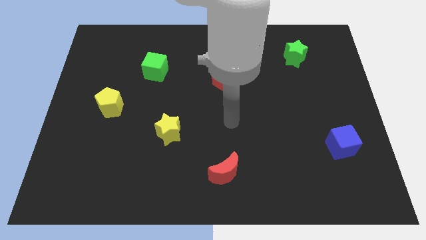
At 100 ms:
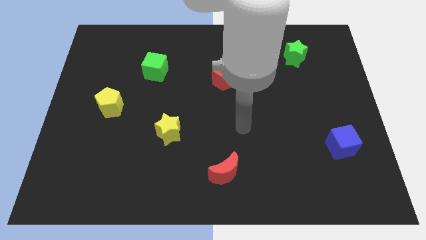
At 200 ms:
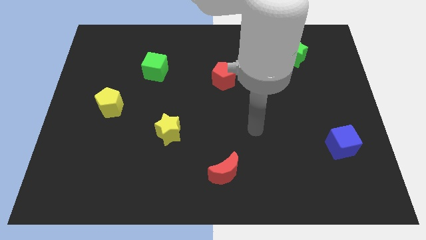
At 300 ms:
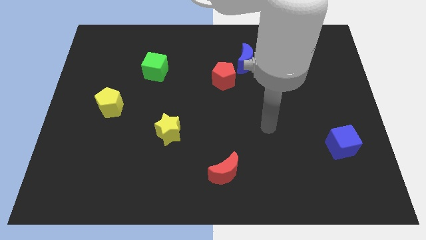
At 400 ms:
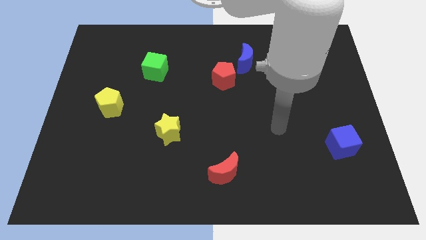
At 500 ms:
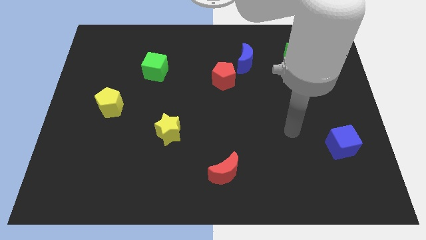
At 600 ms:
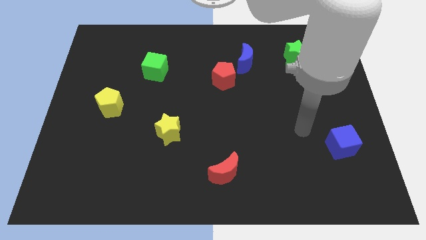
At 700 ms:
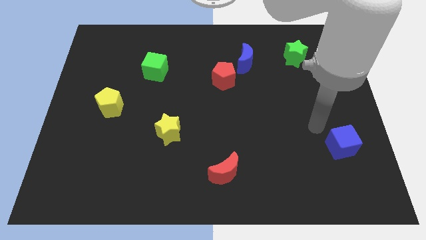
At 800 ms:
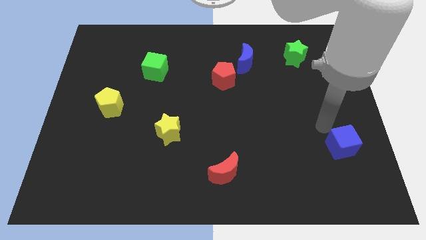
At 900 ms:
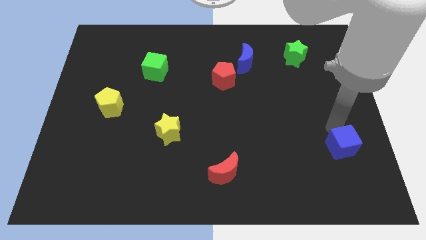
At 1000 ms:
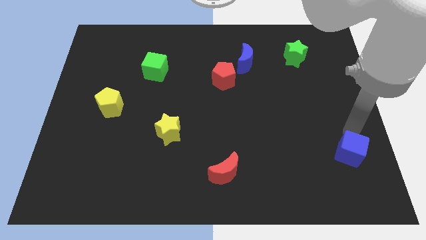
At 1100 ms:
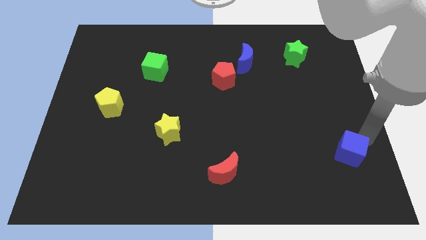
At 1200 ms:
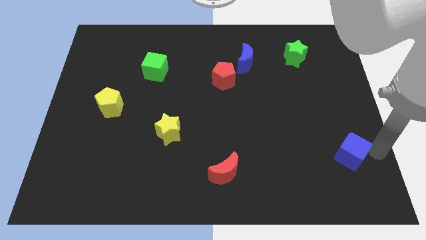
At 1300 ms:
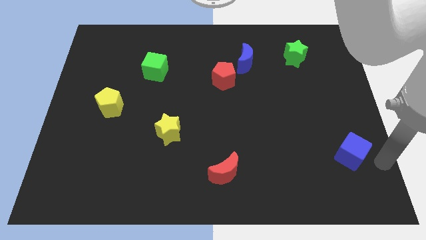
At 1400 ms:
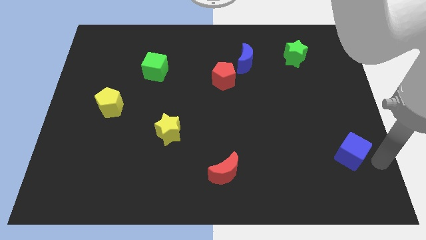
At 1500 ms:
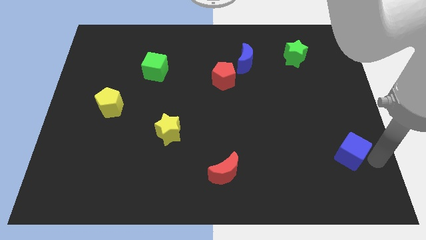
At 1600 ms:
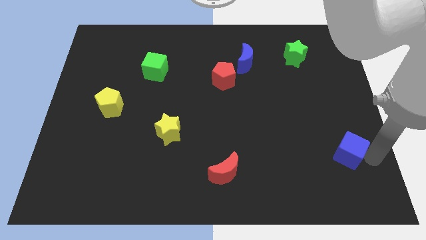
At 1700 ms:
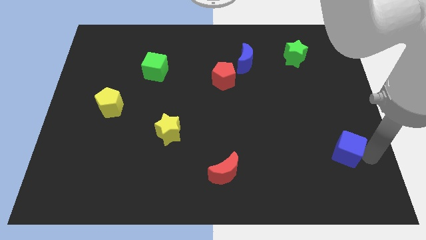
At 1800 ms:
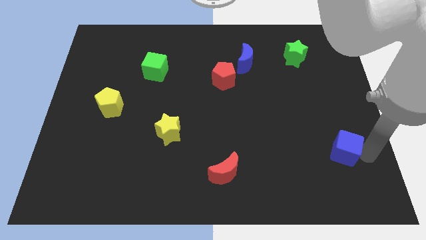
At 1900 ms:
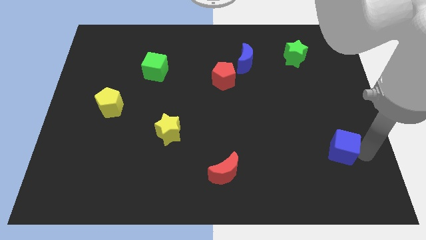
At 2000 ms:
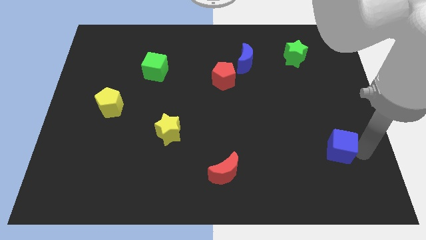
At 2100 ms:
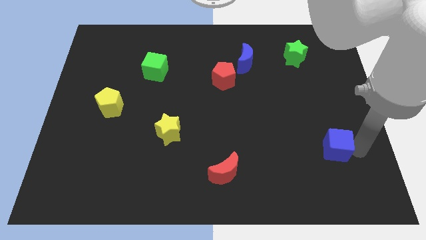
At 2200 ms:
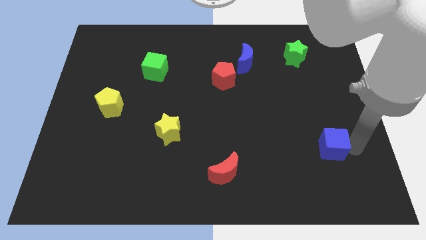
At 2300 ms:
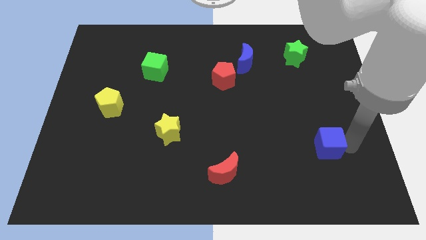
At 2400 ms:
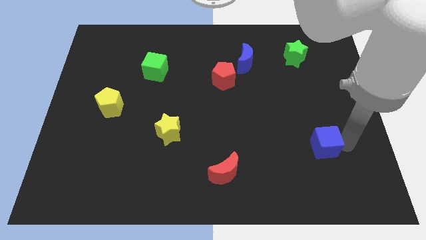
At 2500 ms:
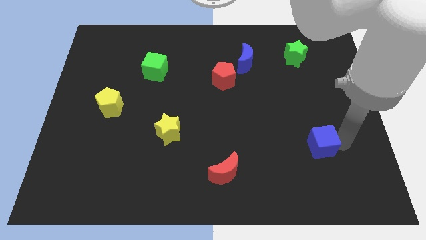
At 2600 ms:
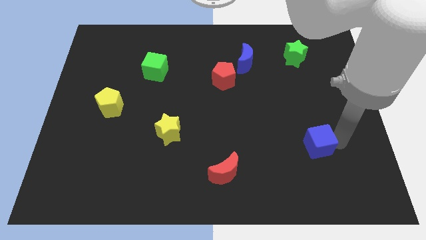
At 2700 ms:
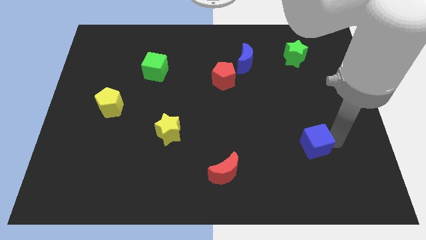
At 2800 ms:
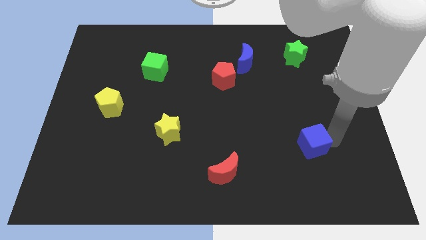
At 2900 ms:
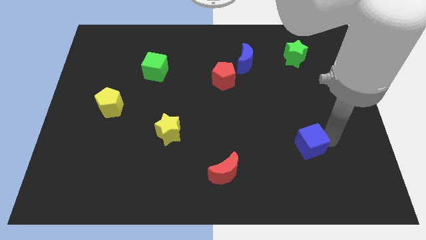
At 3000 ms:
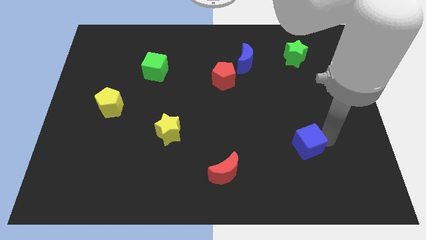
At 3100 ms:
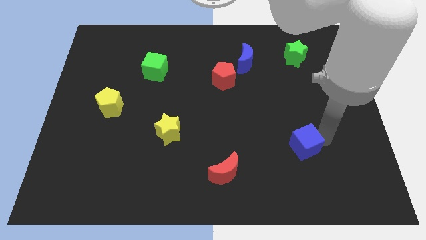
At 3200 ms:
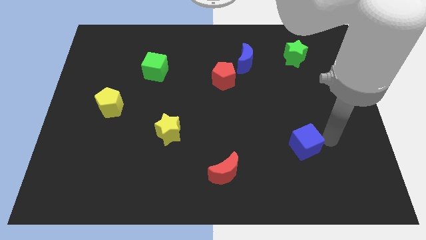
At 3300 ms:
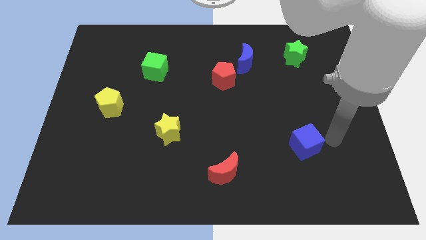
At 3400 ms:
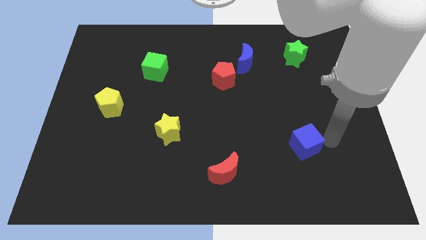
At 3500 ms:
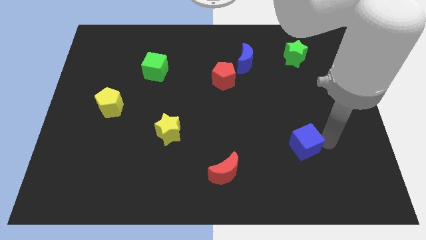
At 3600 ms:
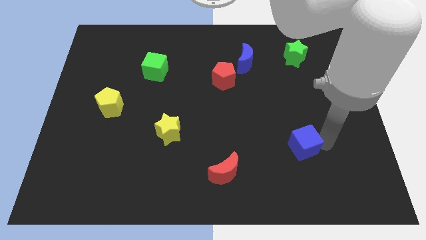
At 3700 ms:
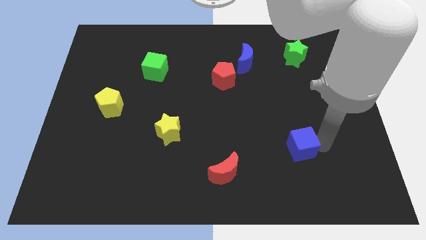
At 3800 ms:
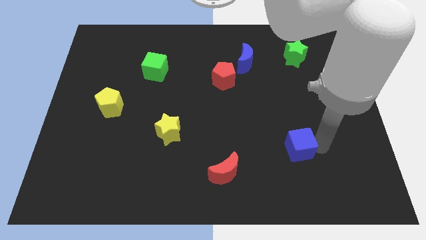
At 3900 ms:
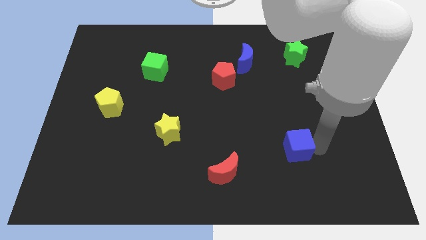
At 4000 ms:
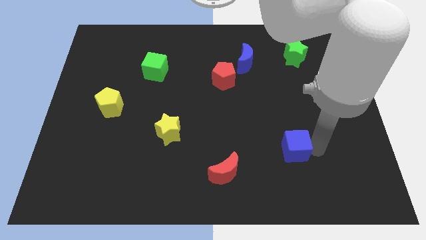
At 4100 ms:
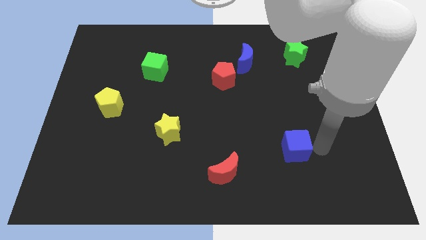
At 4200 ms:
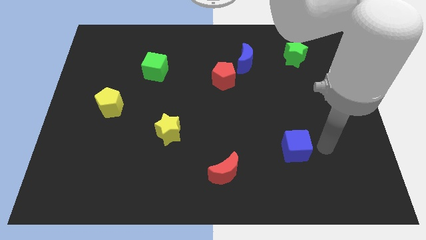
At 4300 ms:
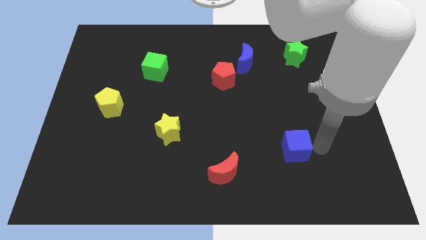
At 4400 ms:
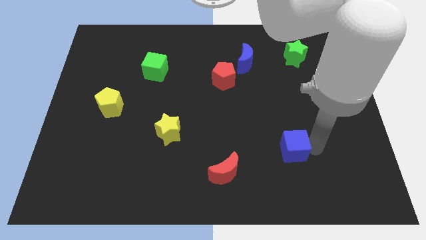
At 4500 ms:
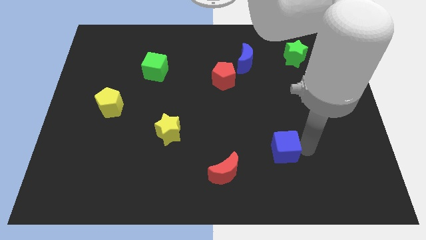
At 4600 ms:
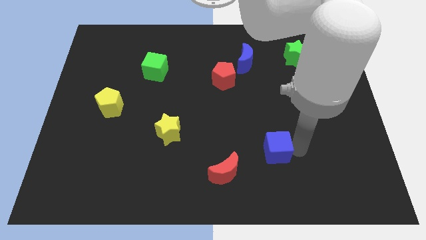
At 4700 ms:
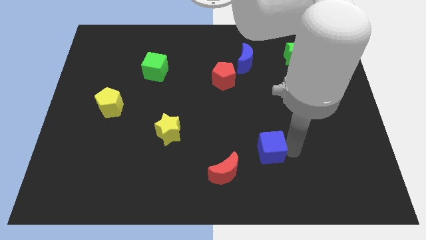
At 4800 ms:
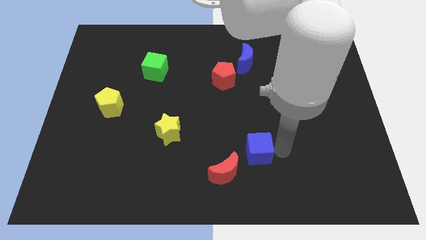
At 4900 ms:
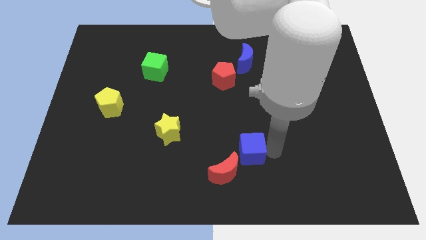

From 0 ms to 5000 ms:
slide the blue cube to the left

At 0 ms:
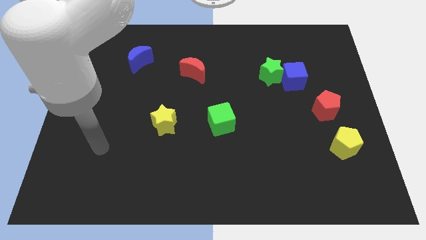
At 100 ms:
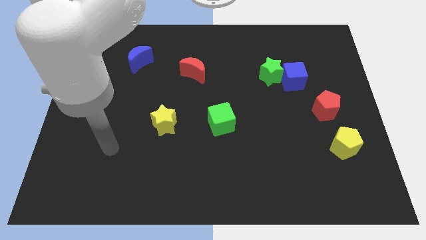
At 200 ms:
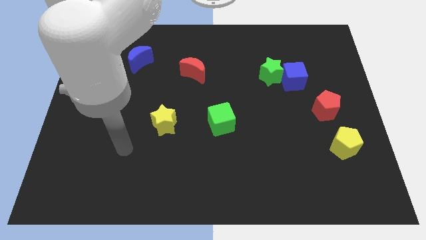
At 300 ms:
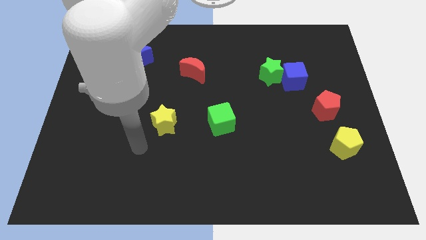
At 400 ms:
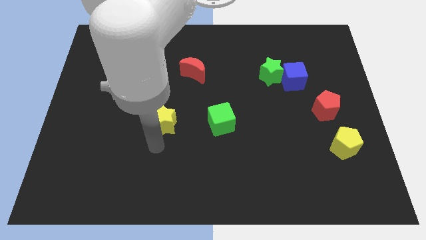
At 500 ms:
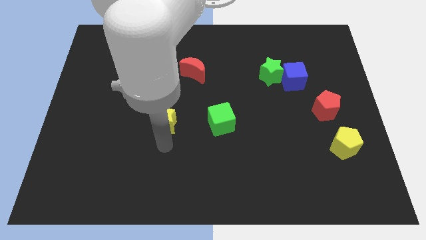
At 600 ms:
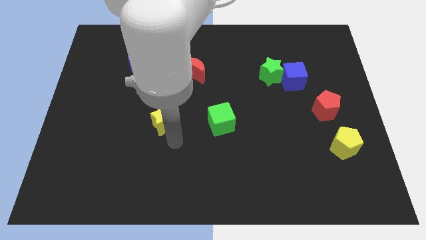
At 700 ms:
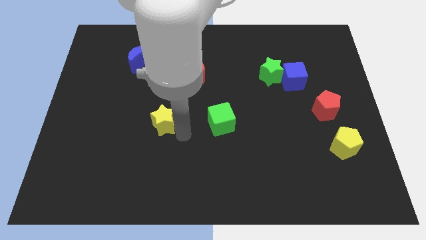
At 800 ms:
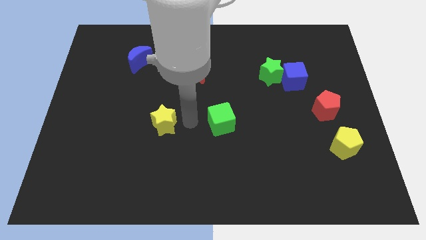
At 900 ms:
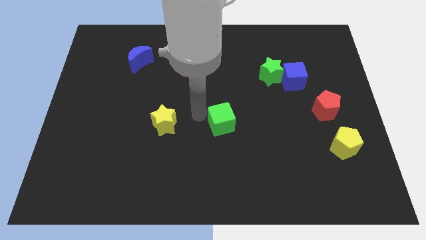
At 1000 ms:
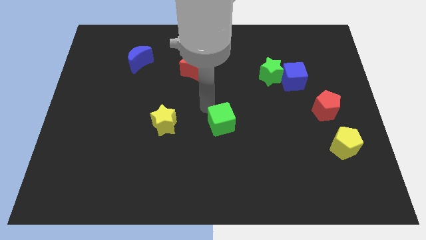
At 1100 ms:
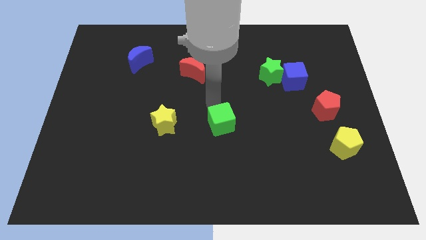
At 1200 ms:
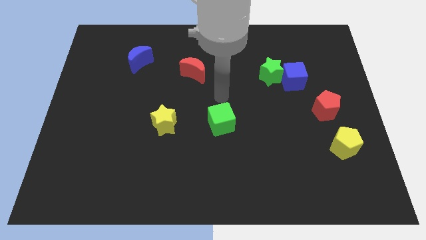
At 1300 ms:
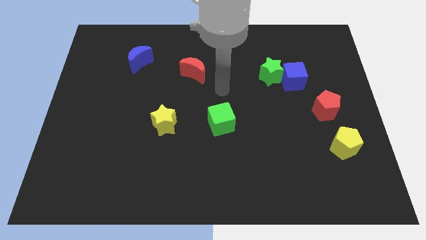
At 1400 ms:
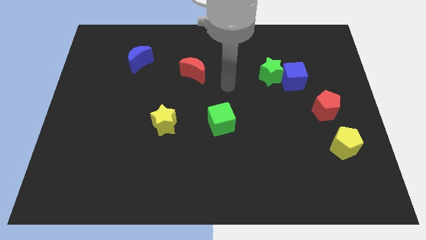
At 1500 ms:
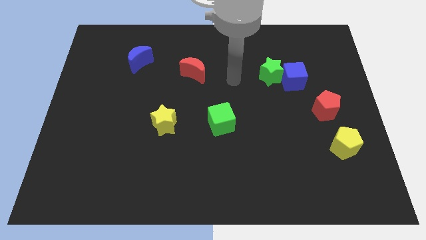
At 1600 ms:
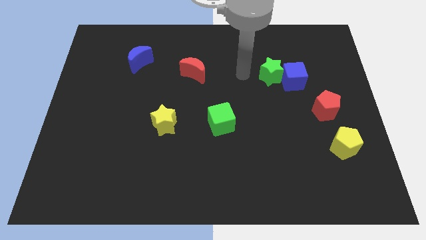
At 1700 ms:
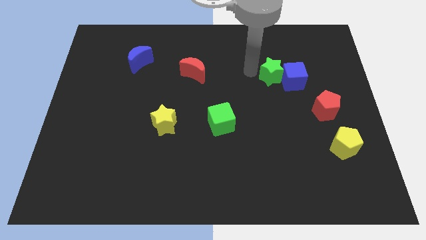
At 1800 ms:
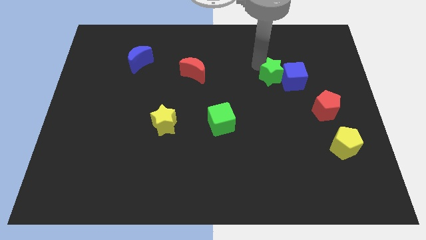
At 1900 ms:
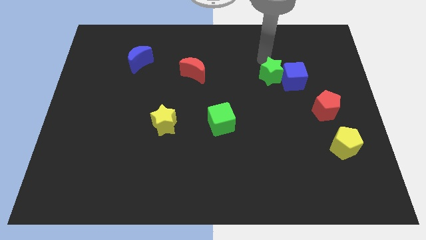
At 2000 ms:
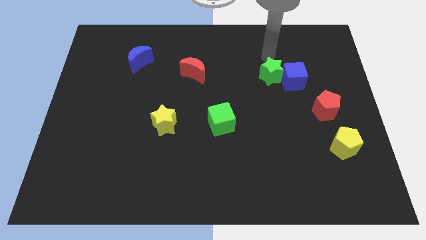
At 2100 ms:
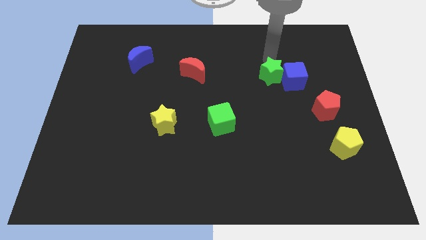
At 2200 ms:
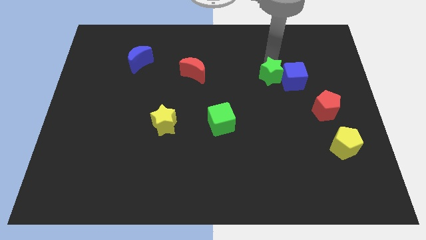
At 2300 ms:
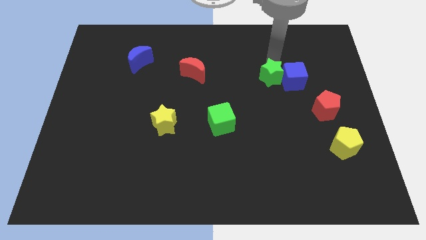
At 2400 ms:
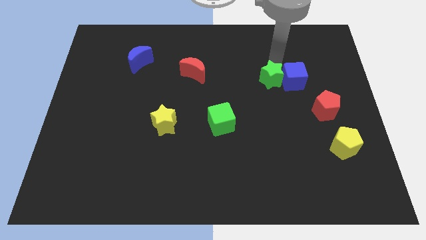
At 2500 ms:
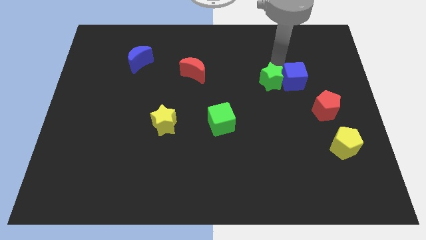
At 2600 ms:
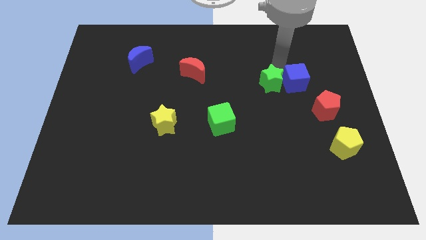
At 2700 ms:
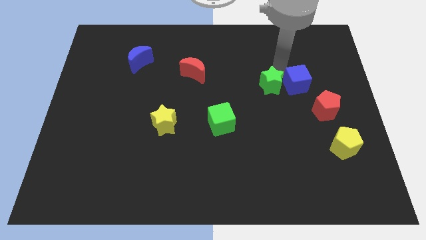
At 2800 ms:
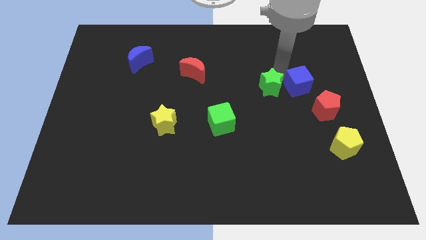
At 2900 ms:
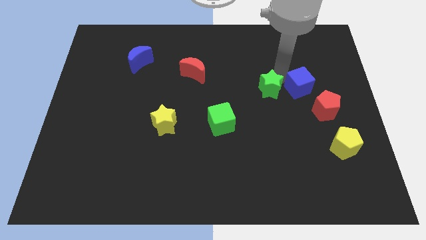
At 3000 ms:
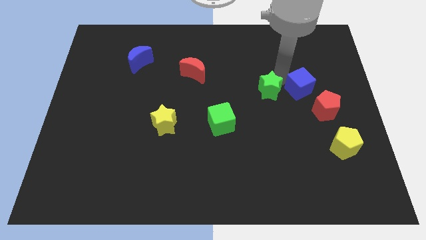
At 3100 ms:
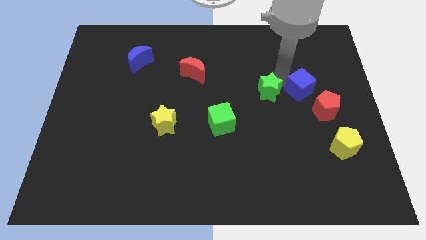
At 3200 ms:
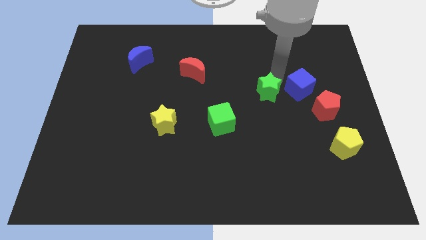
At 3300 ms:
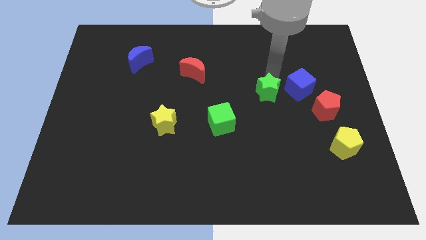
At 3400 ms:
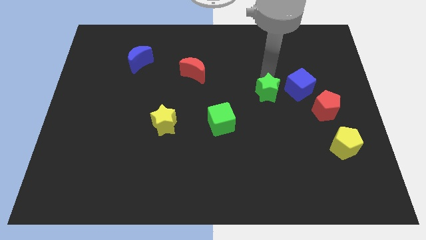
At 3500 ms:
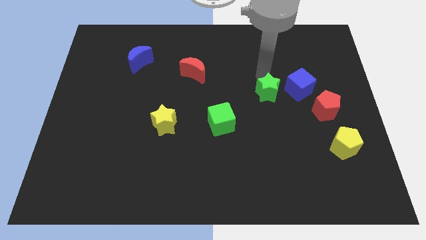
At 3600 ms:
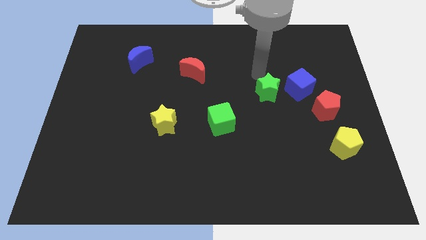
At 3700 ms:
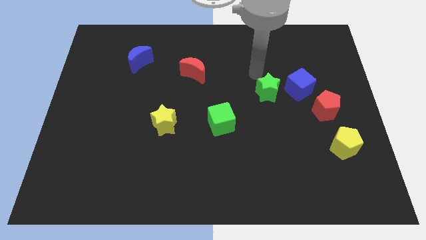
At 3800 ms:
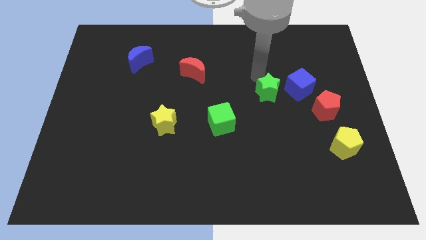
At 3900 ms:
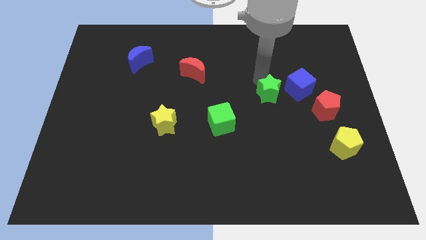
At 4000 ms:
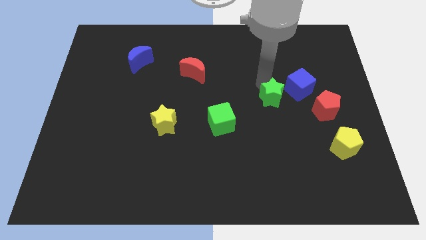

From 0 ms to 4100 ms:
slide the green star down a bit
